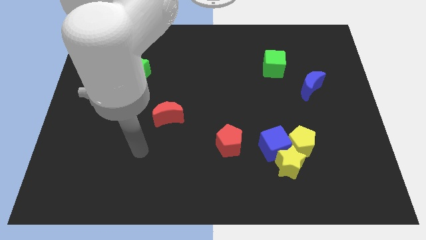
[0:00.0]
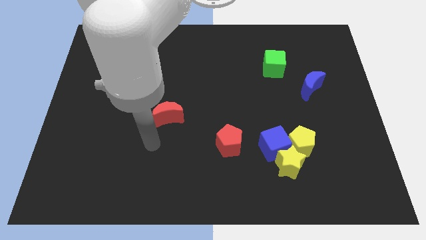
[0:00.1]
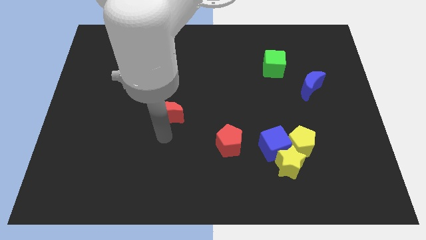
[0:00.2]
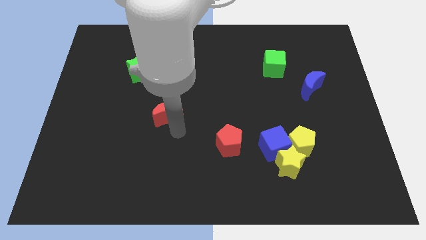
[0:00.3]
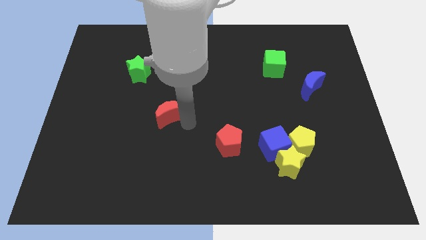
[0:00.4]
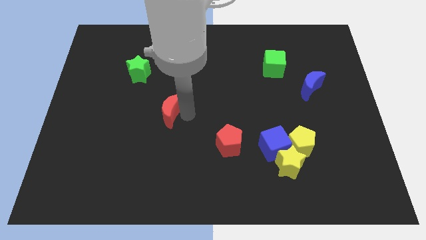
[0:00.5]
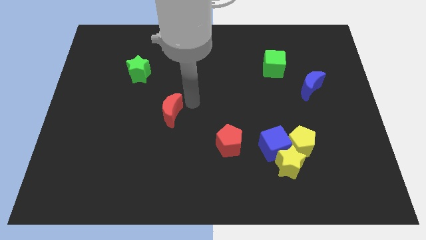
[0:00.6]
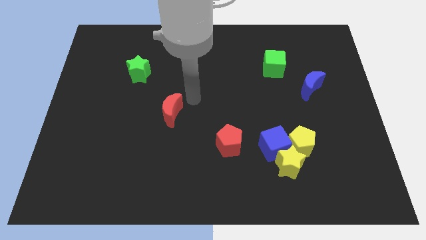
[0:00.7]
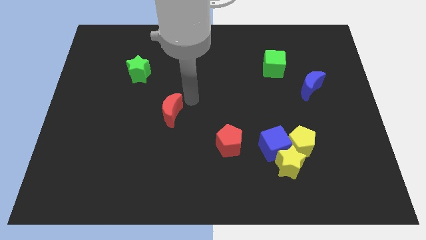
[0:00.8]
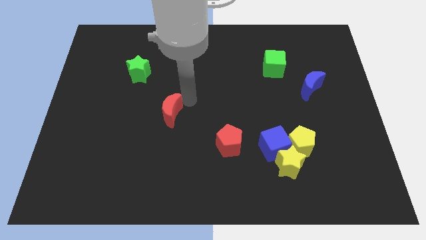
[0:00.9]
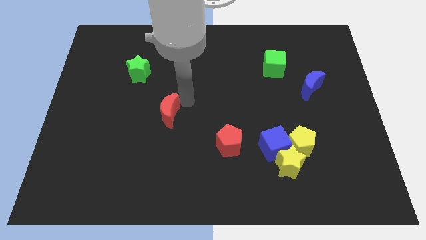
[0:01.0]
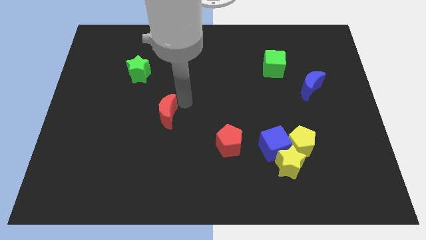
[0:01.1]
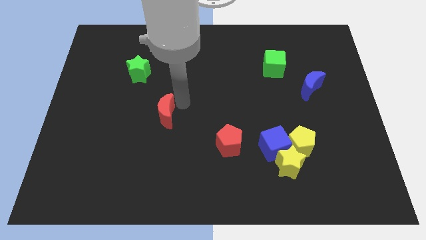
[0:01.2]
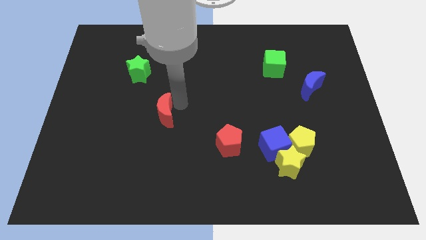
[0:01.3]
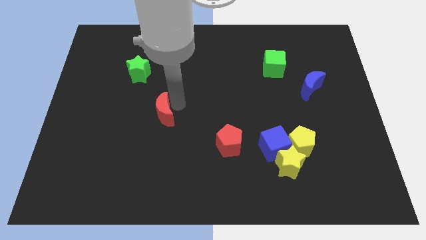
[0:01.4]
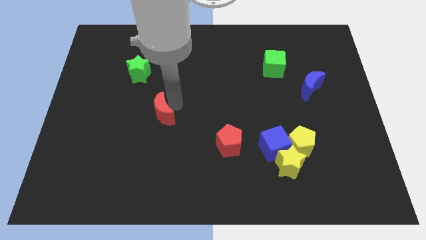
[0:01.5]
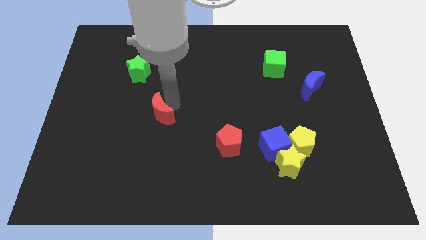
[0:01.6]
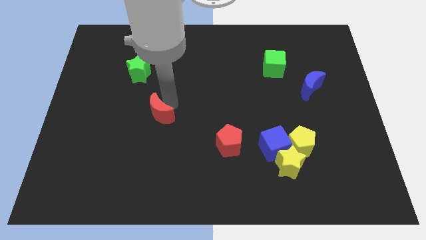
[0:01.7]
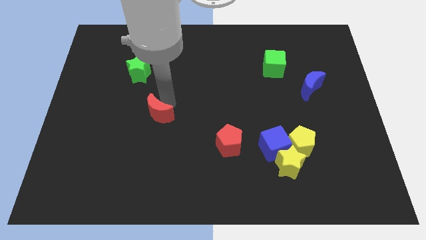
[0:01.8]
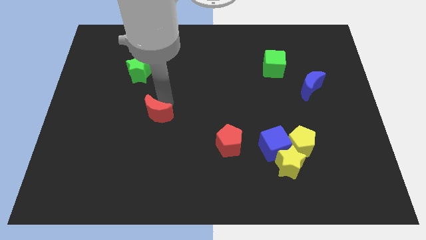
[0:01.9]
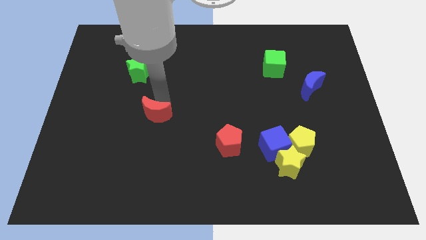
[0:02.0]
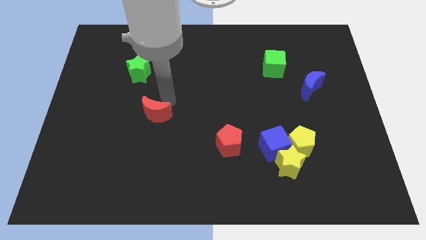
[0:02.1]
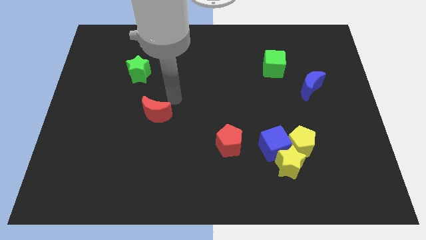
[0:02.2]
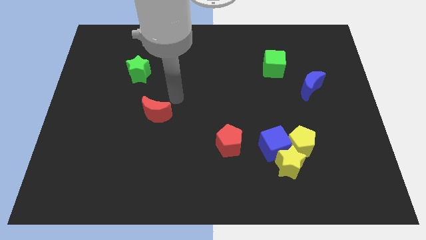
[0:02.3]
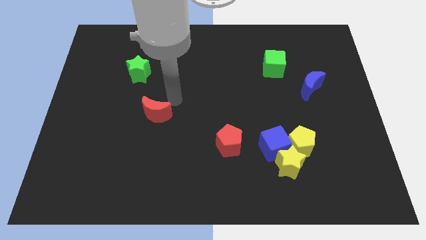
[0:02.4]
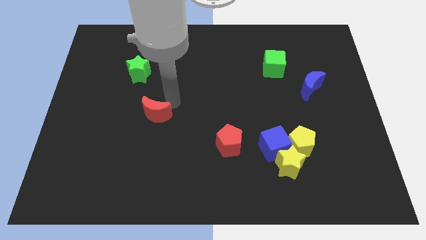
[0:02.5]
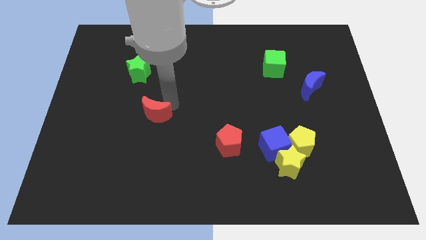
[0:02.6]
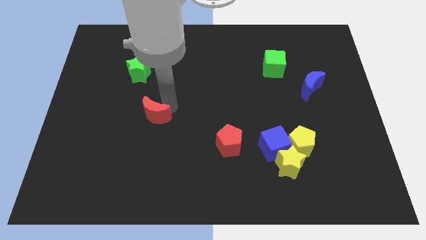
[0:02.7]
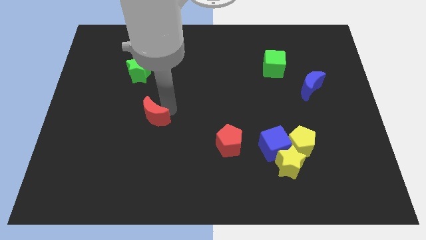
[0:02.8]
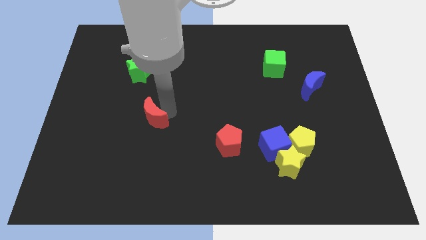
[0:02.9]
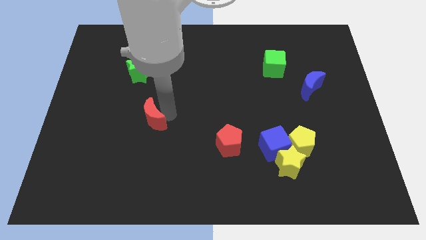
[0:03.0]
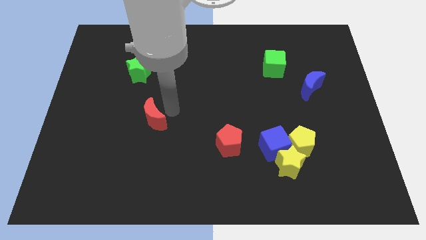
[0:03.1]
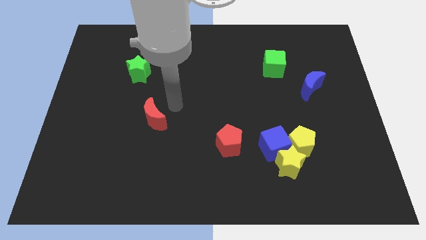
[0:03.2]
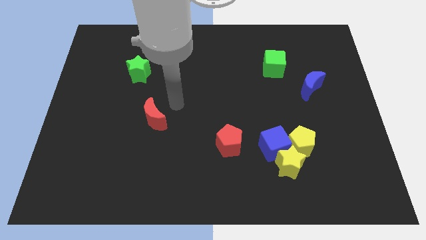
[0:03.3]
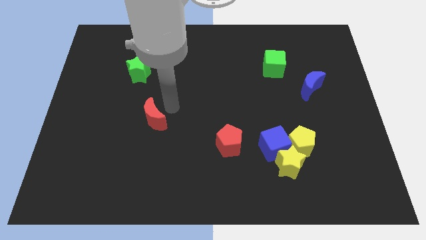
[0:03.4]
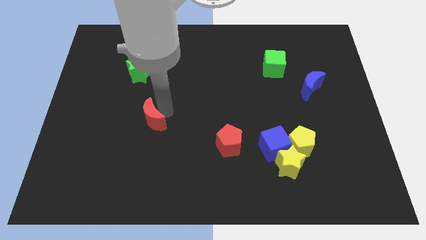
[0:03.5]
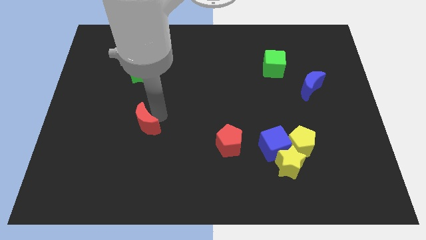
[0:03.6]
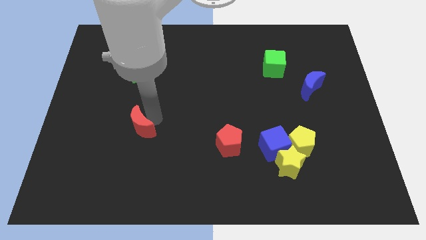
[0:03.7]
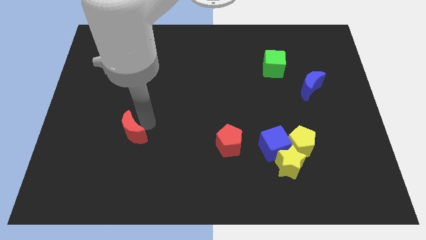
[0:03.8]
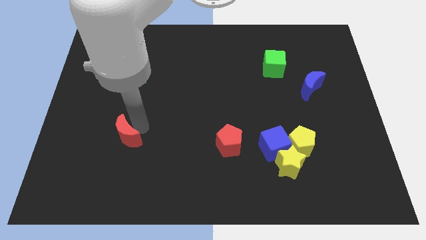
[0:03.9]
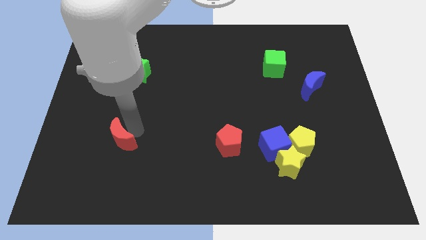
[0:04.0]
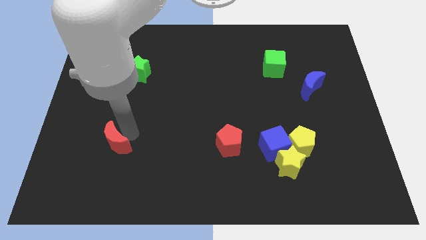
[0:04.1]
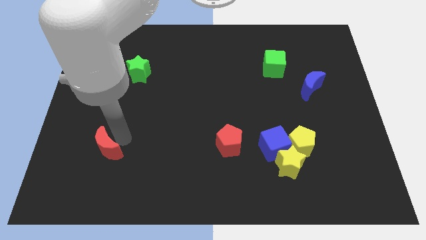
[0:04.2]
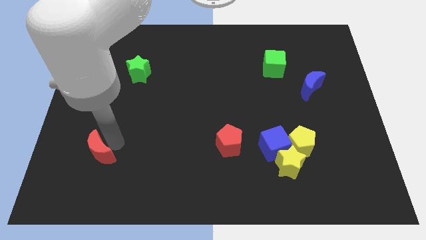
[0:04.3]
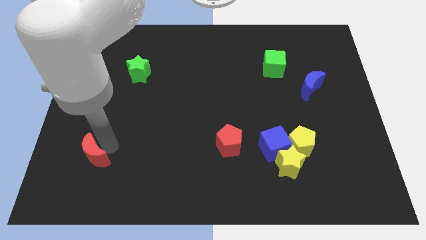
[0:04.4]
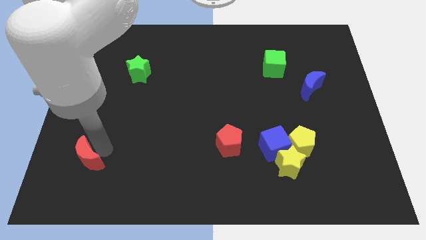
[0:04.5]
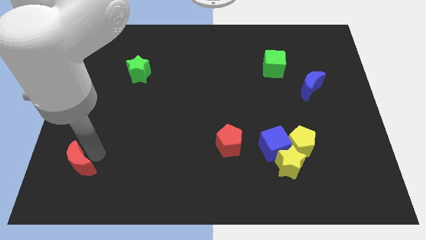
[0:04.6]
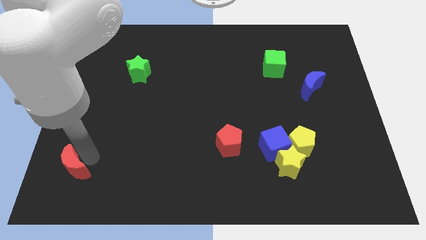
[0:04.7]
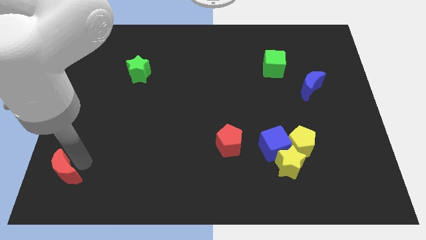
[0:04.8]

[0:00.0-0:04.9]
put the red moon to the bottom left

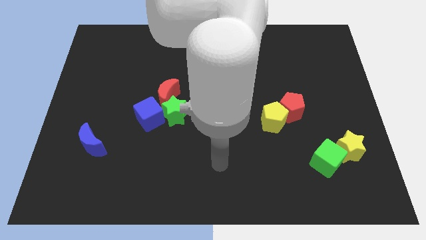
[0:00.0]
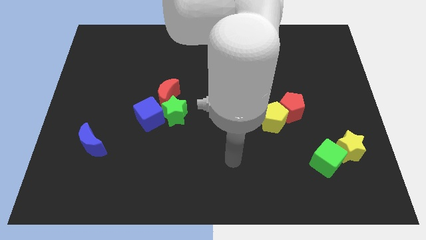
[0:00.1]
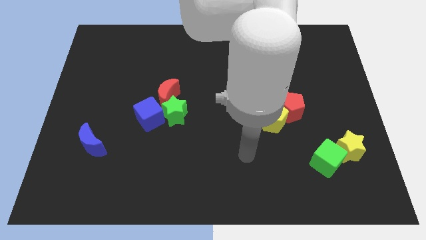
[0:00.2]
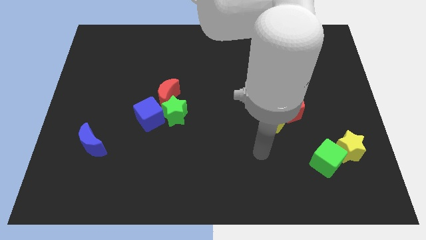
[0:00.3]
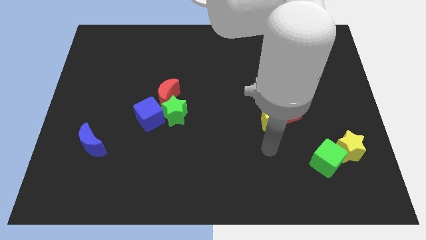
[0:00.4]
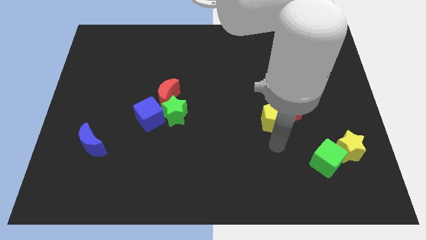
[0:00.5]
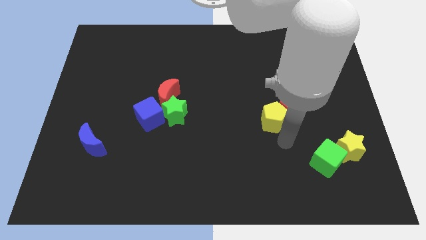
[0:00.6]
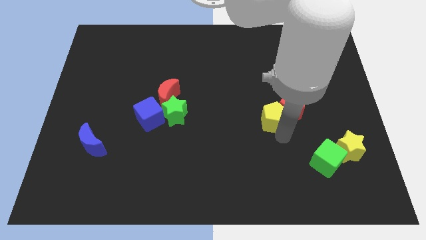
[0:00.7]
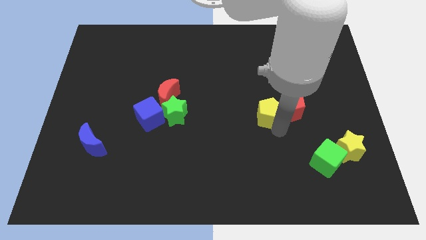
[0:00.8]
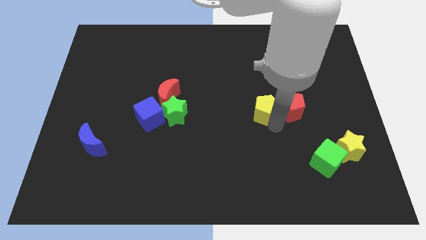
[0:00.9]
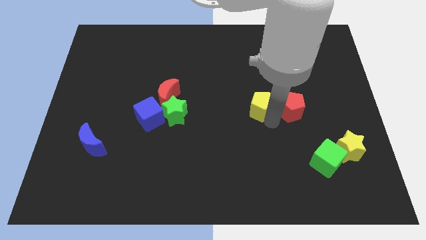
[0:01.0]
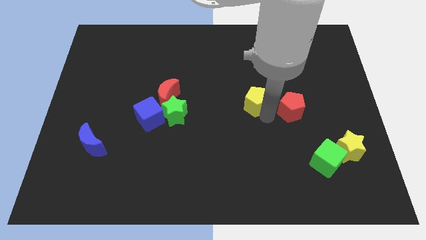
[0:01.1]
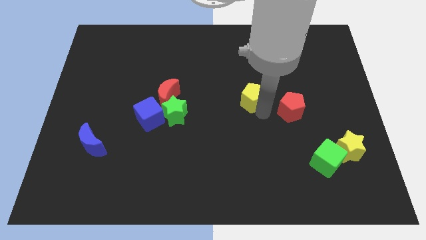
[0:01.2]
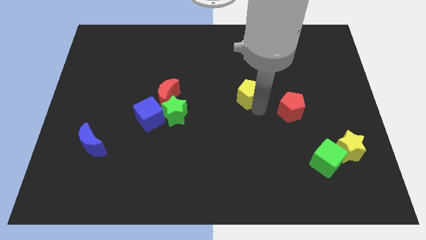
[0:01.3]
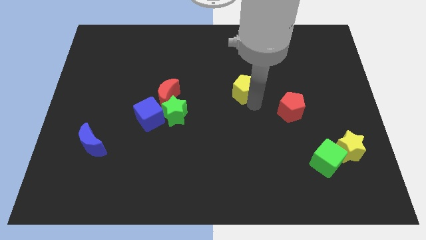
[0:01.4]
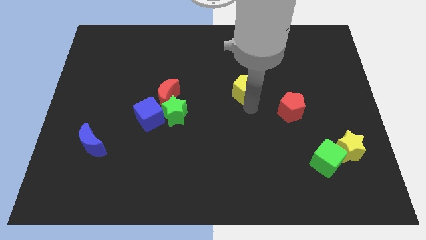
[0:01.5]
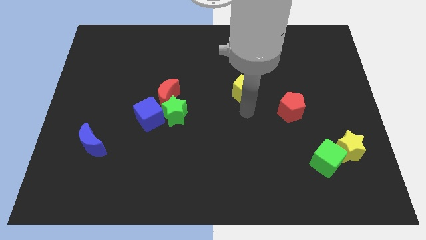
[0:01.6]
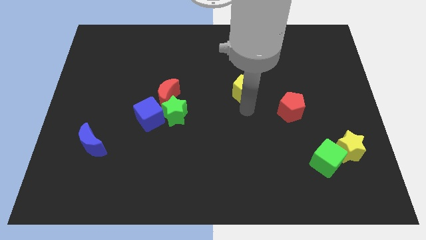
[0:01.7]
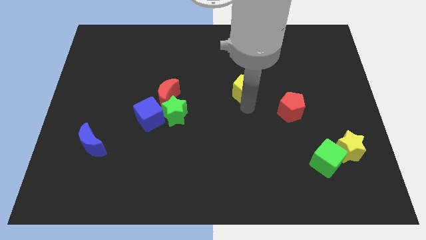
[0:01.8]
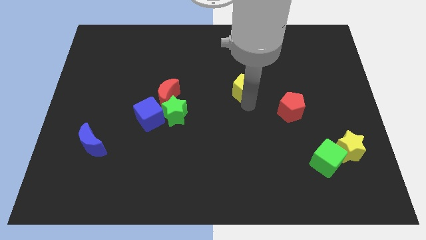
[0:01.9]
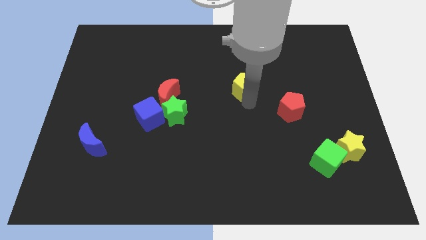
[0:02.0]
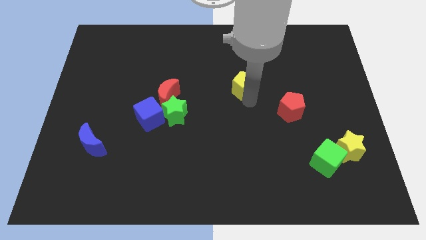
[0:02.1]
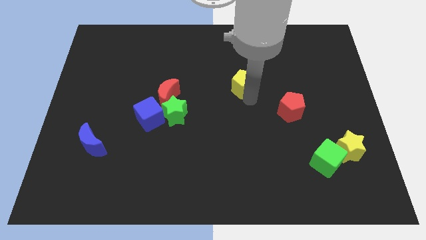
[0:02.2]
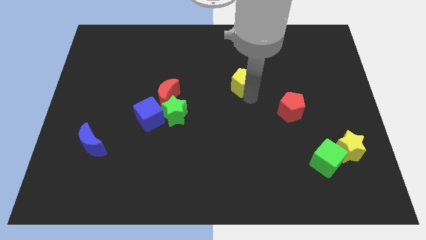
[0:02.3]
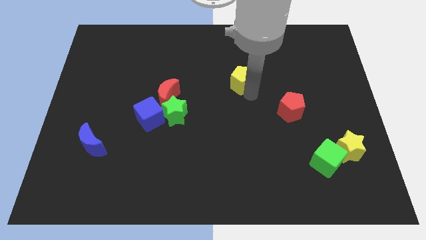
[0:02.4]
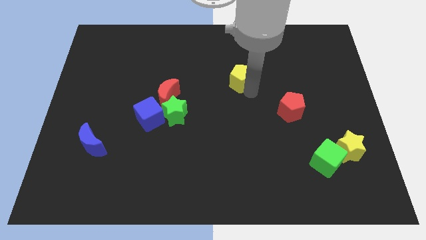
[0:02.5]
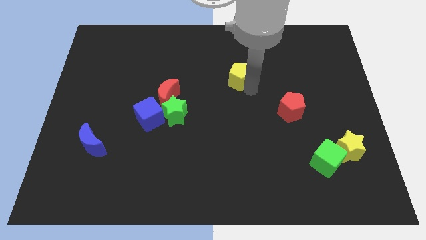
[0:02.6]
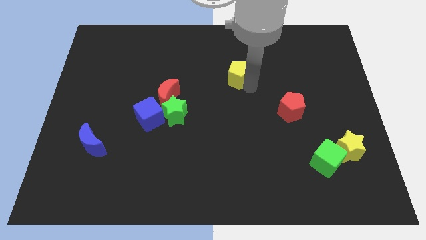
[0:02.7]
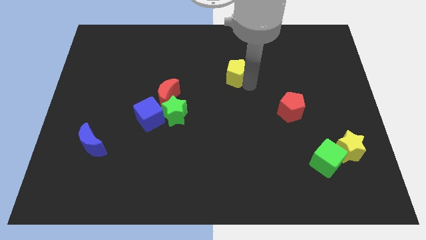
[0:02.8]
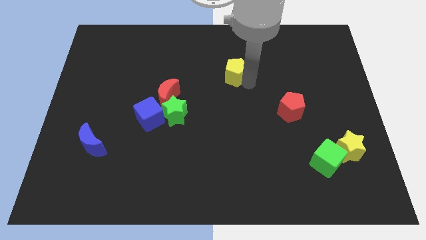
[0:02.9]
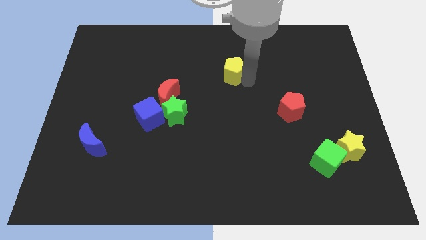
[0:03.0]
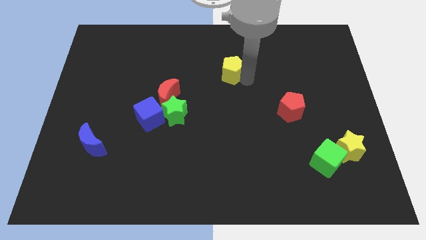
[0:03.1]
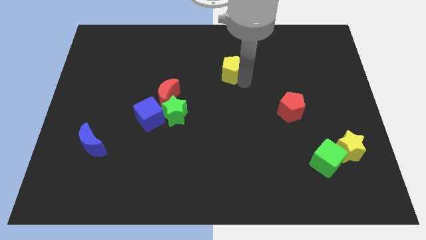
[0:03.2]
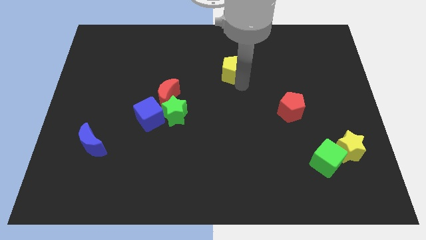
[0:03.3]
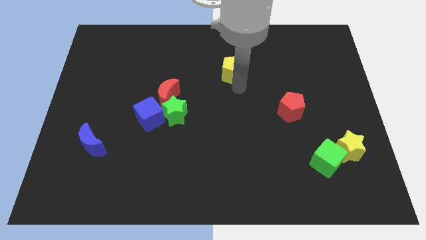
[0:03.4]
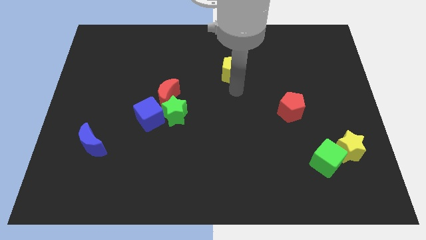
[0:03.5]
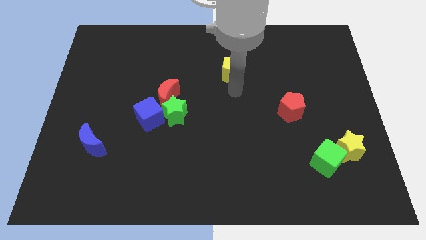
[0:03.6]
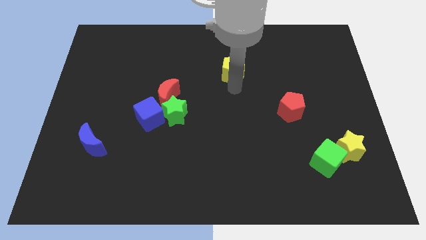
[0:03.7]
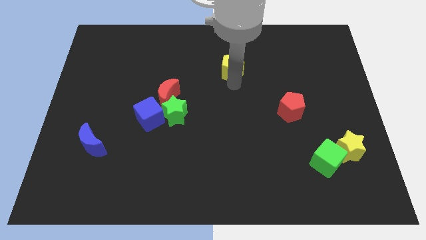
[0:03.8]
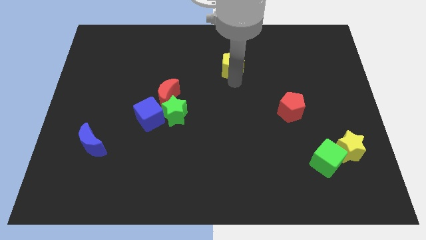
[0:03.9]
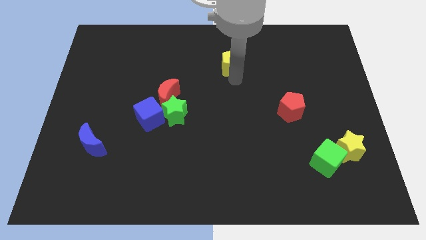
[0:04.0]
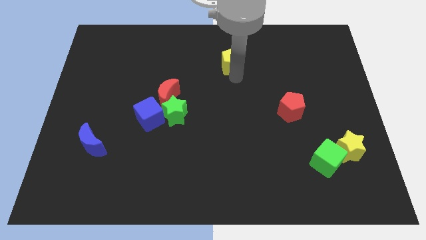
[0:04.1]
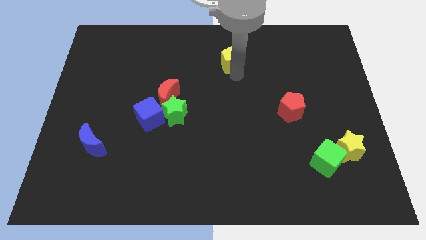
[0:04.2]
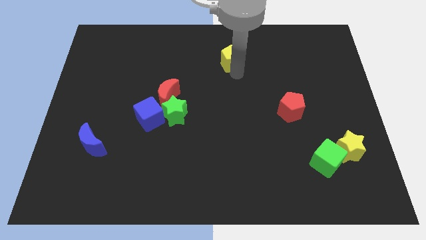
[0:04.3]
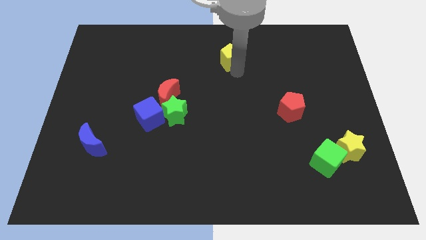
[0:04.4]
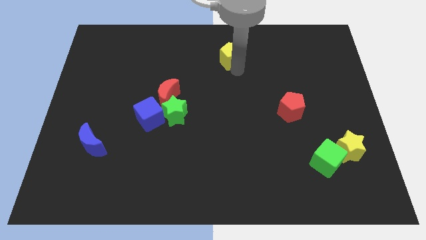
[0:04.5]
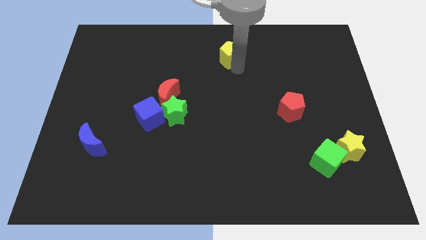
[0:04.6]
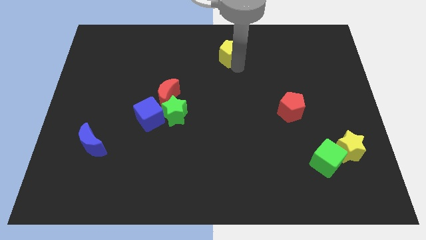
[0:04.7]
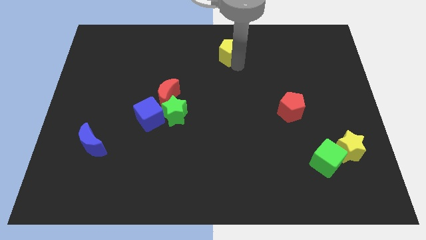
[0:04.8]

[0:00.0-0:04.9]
move the yellow pentagon to the top
